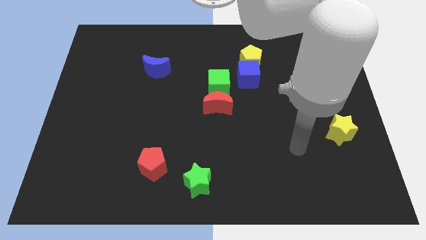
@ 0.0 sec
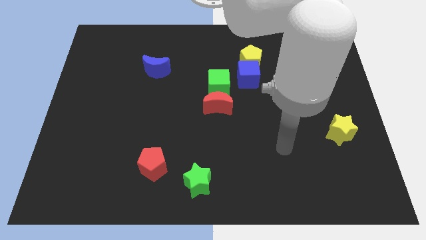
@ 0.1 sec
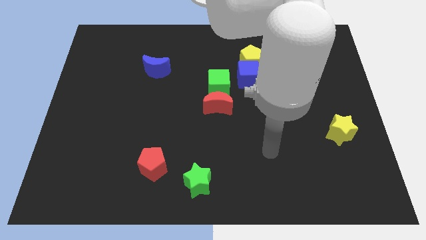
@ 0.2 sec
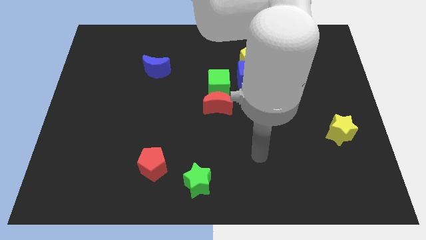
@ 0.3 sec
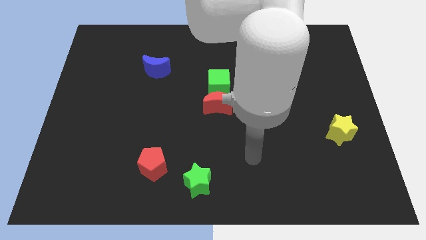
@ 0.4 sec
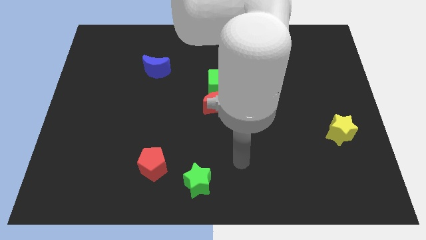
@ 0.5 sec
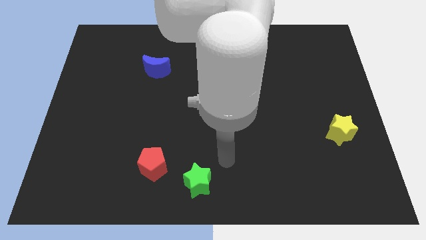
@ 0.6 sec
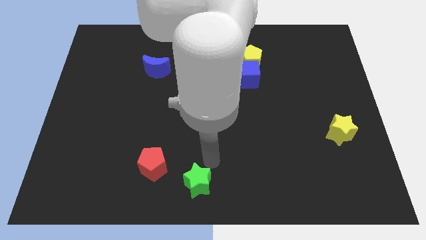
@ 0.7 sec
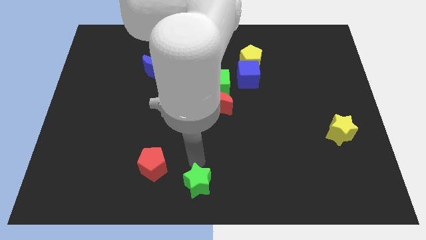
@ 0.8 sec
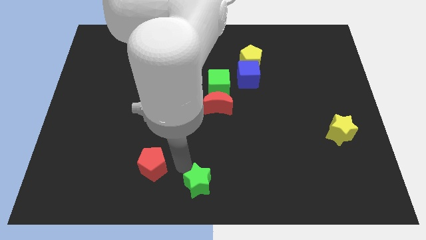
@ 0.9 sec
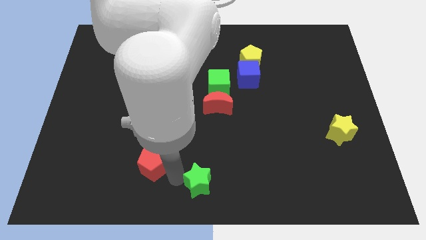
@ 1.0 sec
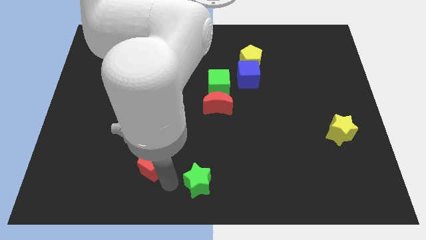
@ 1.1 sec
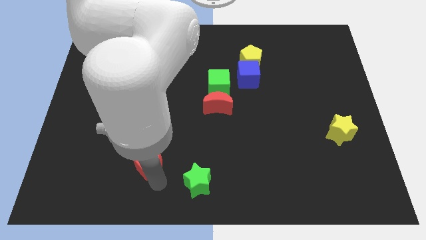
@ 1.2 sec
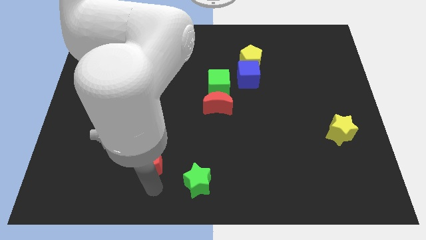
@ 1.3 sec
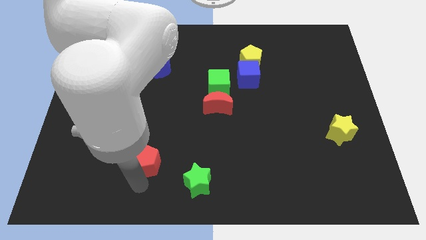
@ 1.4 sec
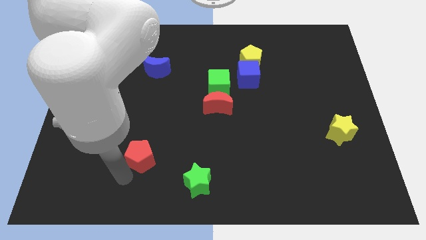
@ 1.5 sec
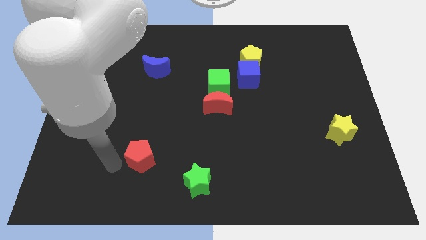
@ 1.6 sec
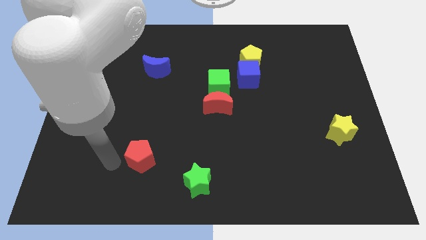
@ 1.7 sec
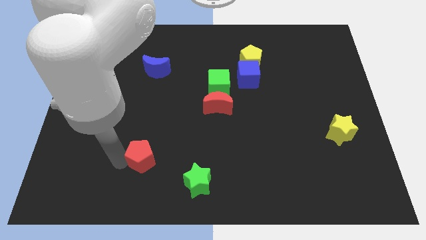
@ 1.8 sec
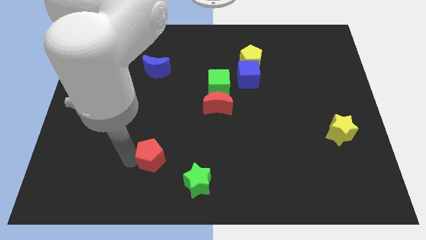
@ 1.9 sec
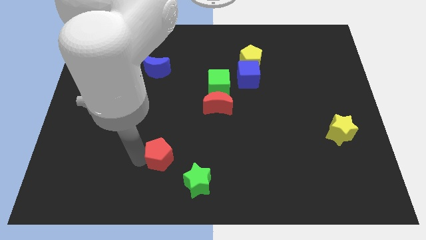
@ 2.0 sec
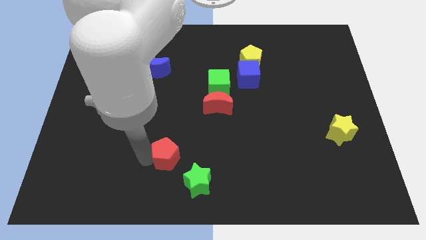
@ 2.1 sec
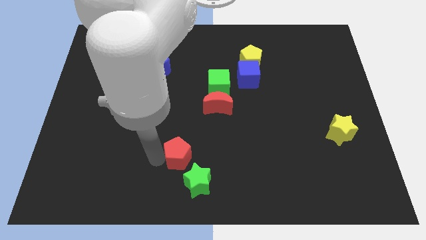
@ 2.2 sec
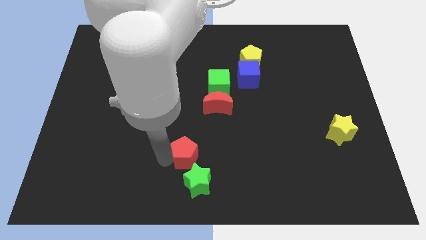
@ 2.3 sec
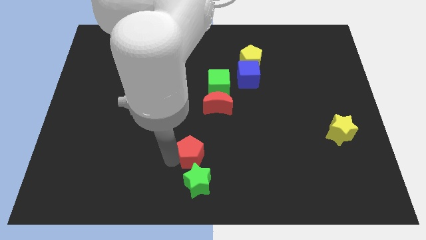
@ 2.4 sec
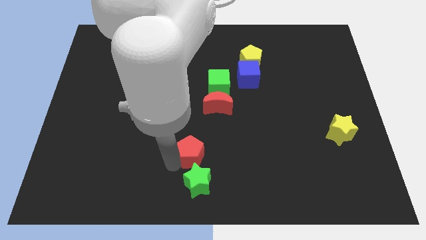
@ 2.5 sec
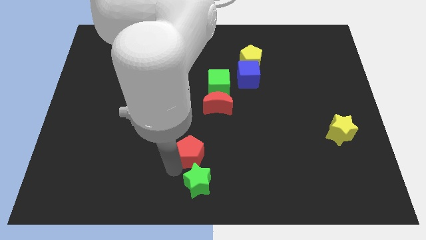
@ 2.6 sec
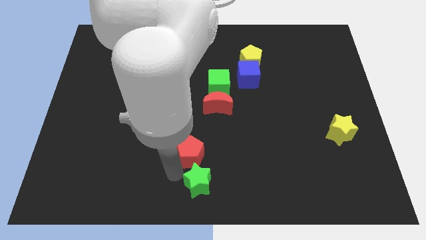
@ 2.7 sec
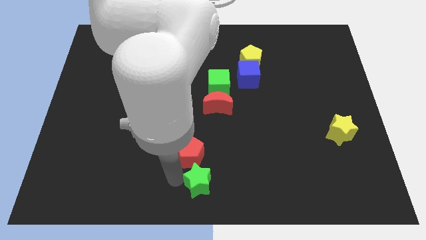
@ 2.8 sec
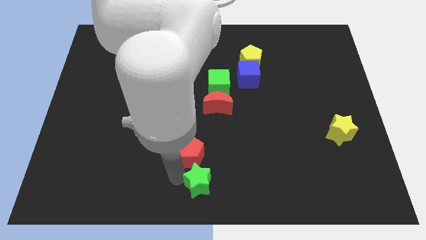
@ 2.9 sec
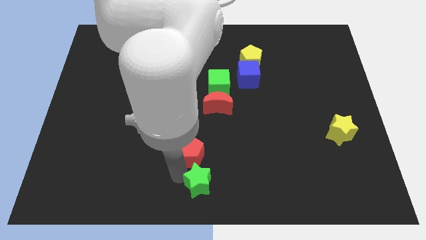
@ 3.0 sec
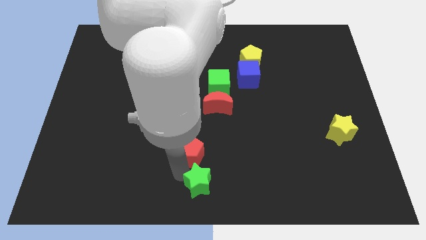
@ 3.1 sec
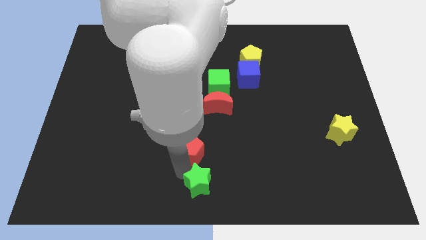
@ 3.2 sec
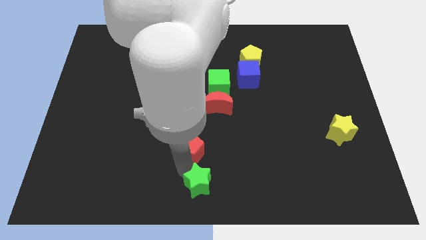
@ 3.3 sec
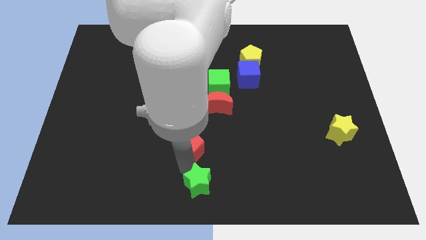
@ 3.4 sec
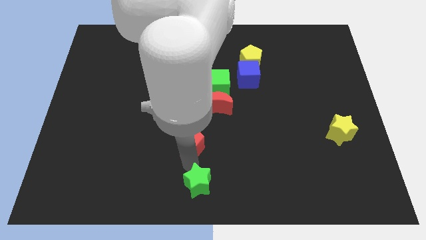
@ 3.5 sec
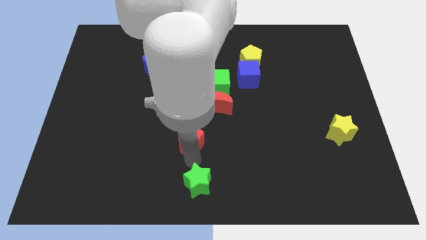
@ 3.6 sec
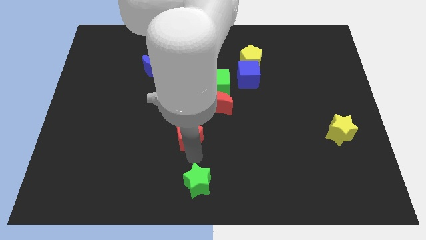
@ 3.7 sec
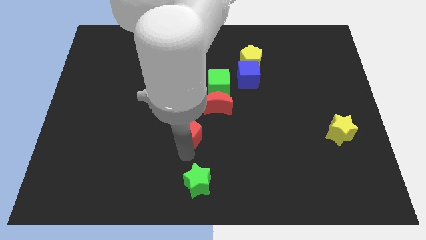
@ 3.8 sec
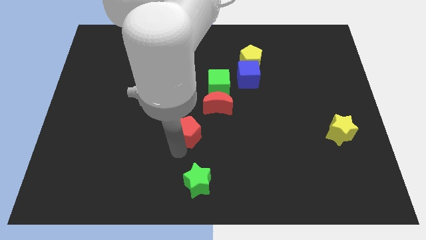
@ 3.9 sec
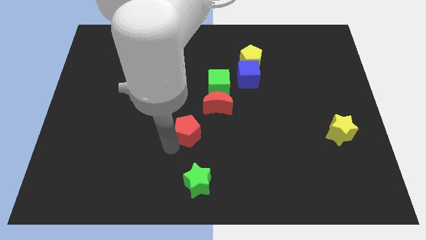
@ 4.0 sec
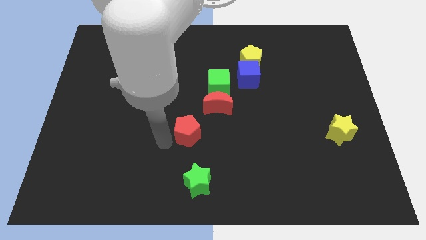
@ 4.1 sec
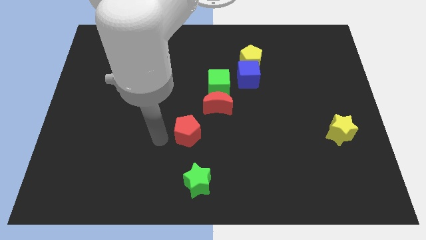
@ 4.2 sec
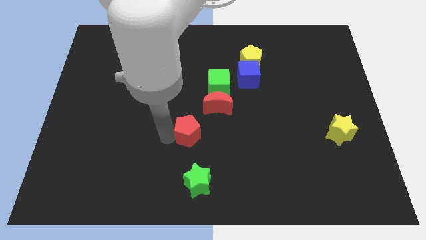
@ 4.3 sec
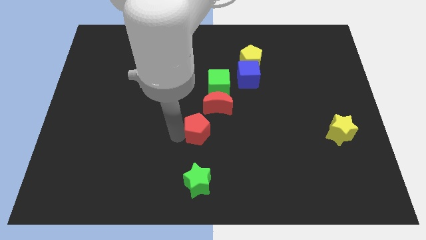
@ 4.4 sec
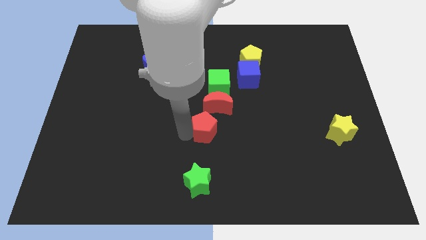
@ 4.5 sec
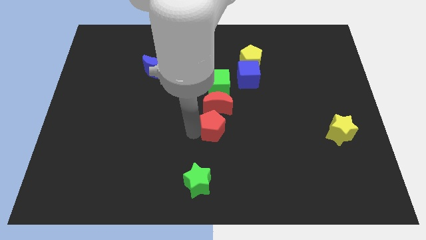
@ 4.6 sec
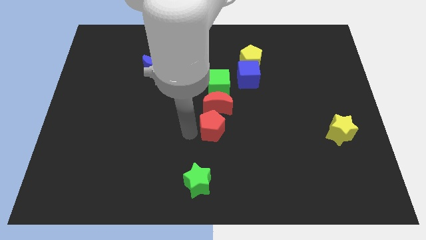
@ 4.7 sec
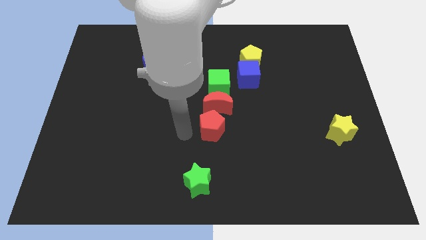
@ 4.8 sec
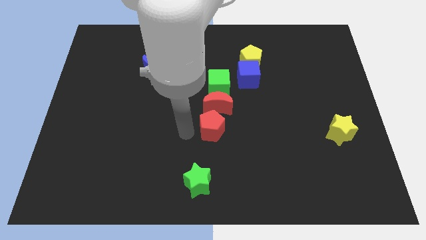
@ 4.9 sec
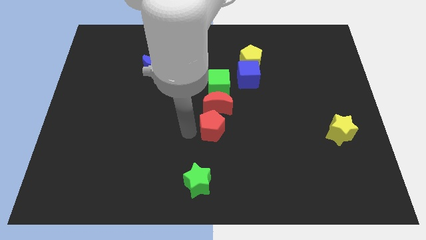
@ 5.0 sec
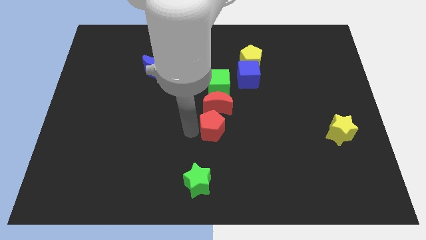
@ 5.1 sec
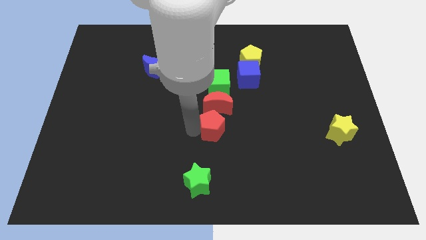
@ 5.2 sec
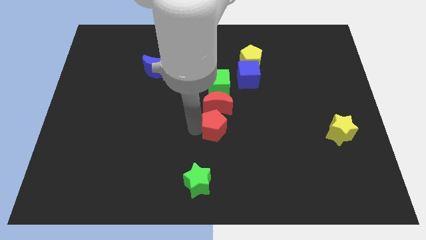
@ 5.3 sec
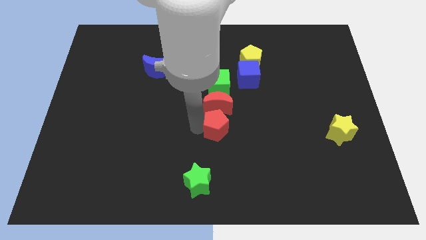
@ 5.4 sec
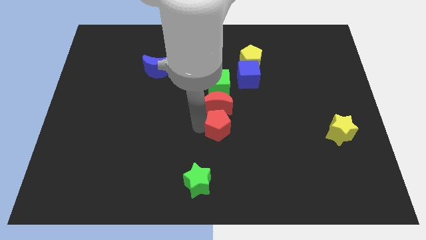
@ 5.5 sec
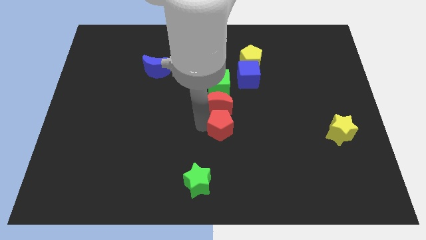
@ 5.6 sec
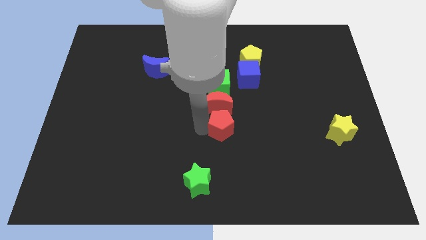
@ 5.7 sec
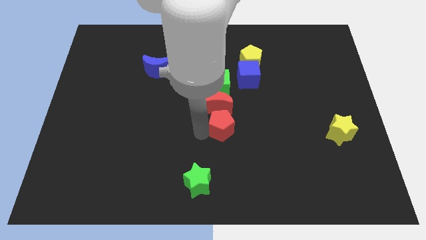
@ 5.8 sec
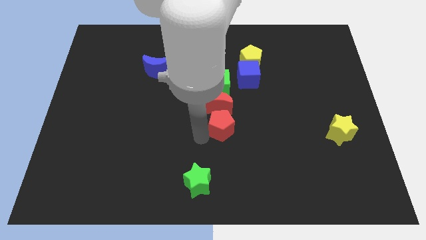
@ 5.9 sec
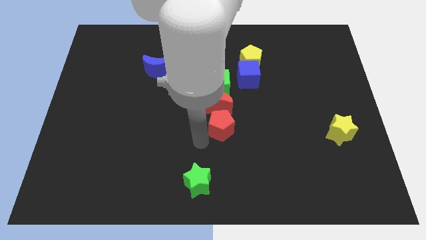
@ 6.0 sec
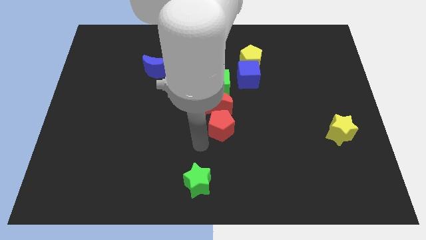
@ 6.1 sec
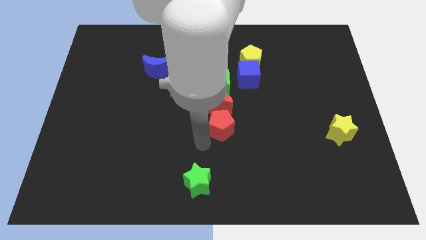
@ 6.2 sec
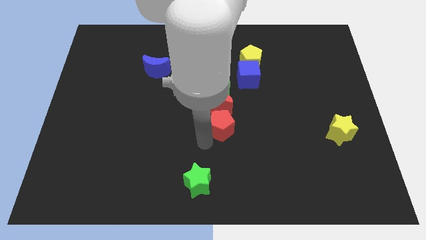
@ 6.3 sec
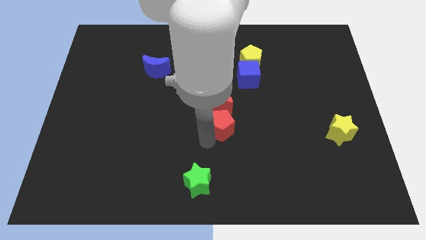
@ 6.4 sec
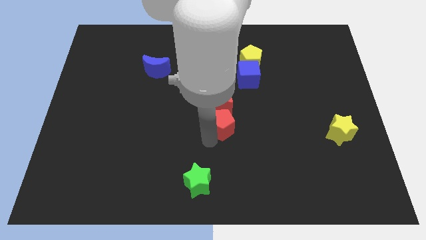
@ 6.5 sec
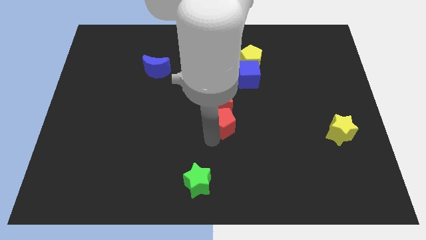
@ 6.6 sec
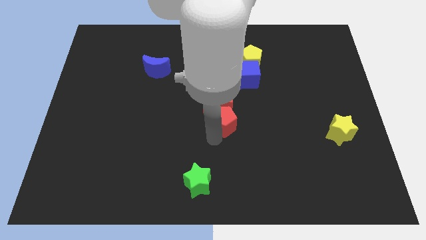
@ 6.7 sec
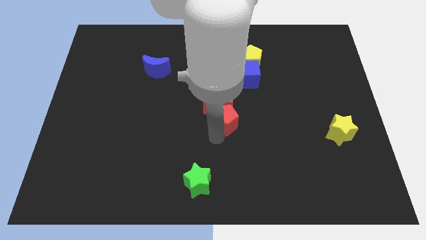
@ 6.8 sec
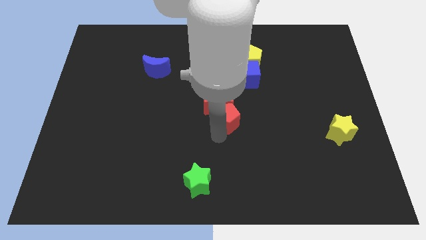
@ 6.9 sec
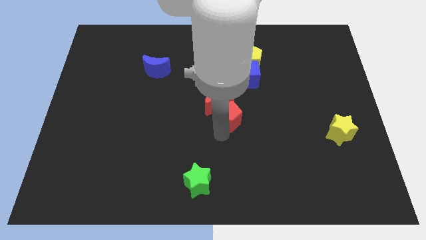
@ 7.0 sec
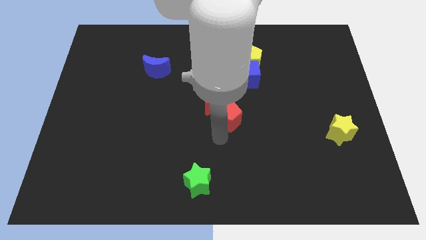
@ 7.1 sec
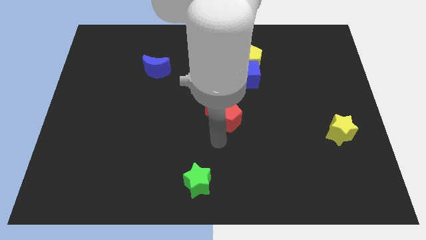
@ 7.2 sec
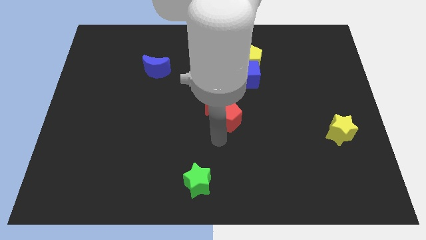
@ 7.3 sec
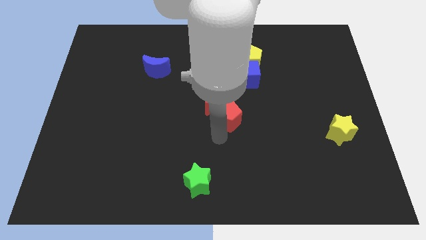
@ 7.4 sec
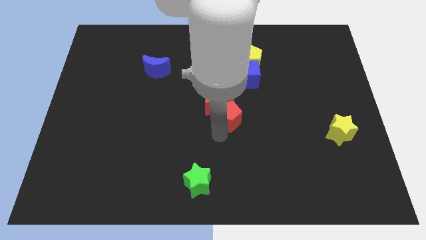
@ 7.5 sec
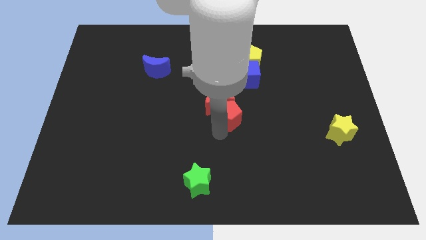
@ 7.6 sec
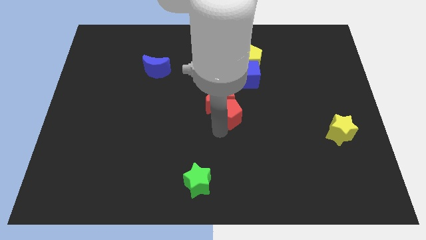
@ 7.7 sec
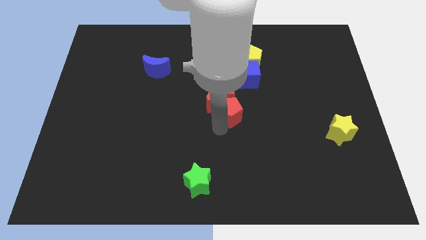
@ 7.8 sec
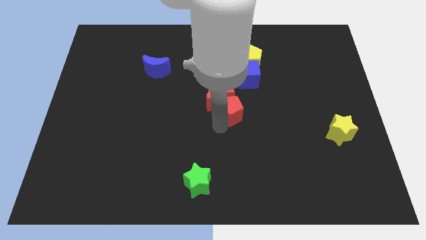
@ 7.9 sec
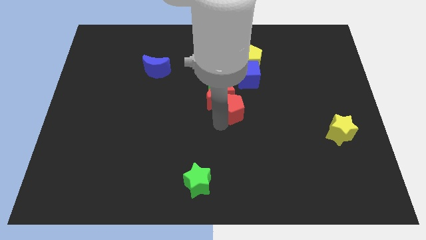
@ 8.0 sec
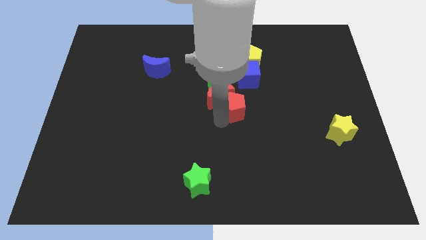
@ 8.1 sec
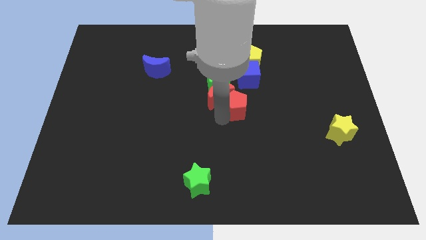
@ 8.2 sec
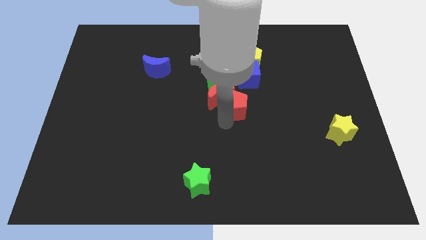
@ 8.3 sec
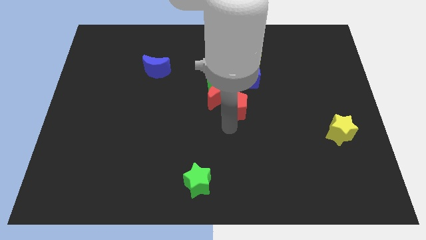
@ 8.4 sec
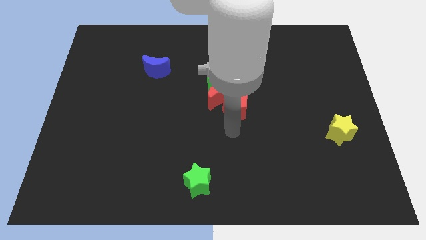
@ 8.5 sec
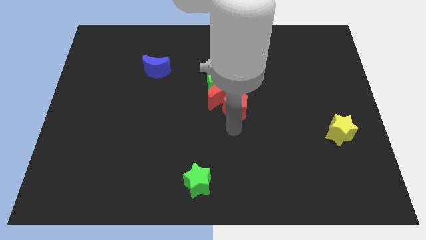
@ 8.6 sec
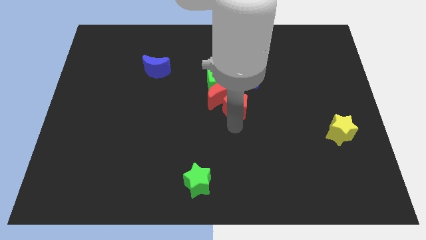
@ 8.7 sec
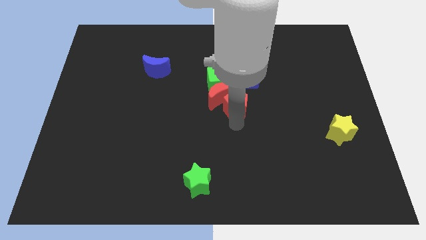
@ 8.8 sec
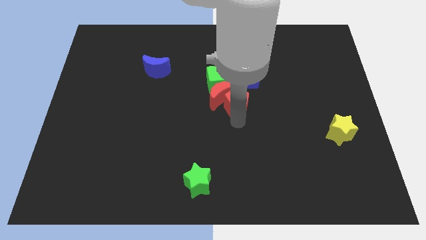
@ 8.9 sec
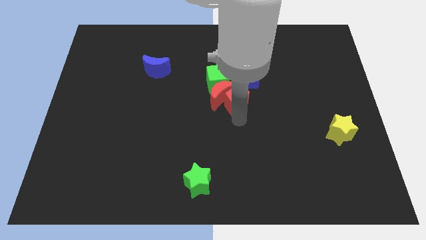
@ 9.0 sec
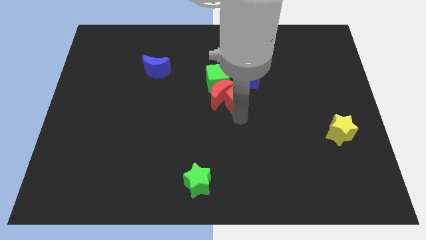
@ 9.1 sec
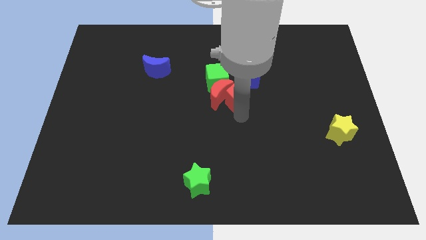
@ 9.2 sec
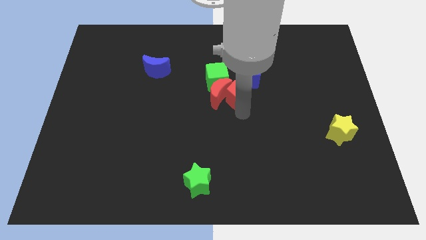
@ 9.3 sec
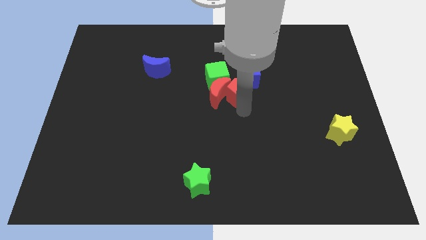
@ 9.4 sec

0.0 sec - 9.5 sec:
push the red pentagon to the blue cube
